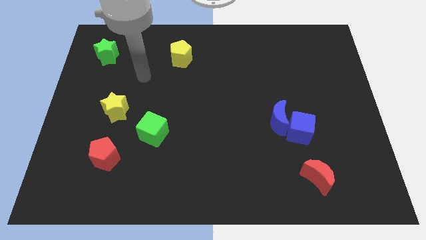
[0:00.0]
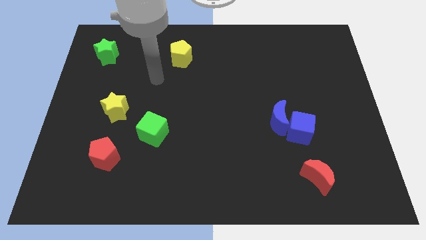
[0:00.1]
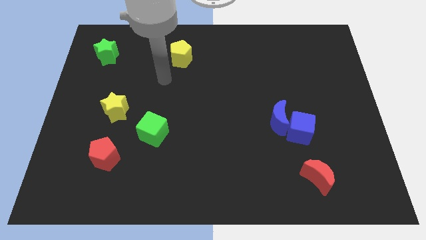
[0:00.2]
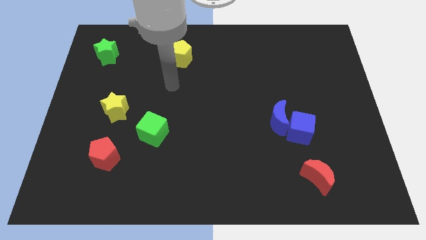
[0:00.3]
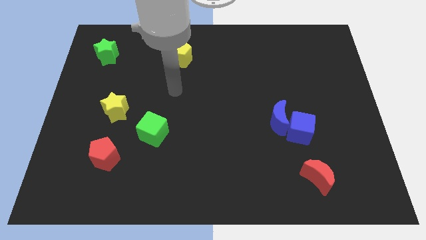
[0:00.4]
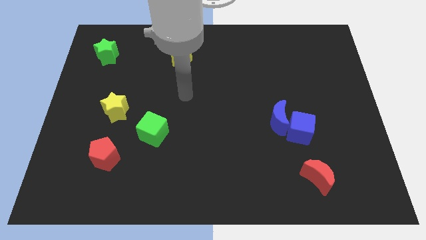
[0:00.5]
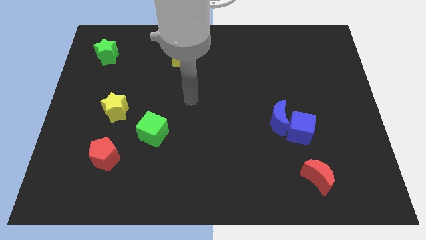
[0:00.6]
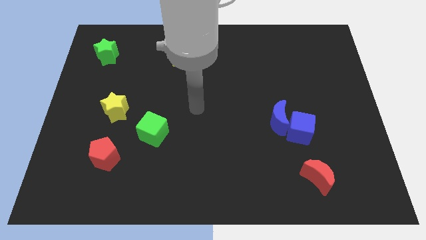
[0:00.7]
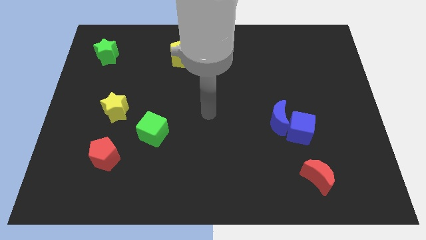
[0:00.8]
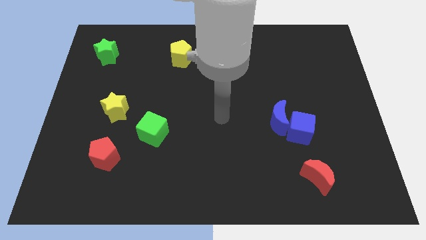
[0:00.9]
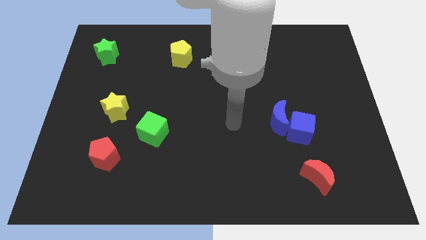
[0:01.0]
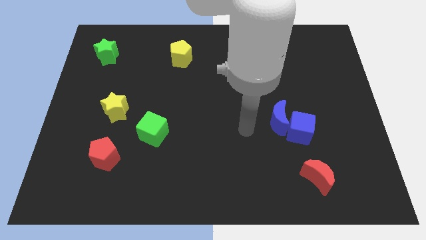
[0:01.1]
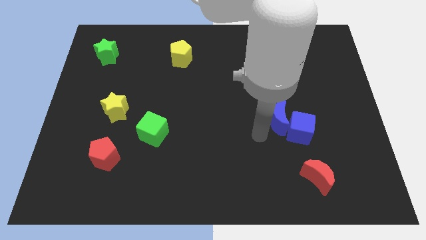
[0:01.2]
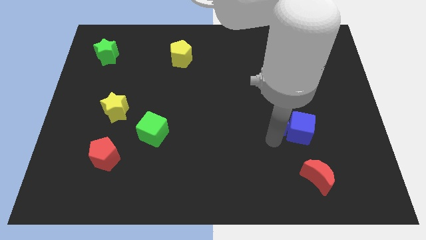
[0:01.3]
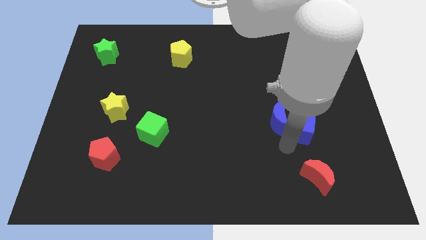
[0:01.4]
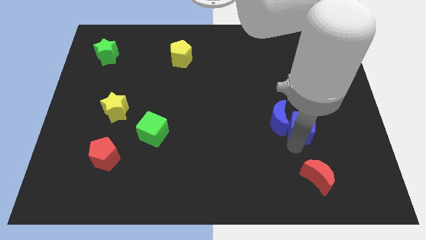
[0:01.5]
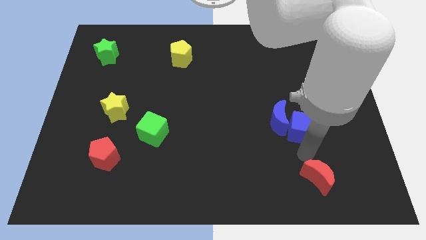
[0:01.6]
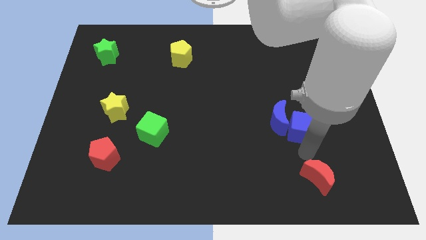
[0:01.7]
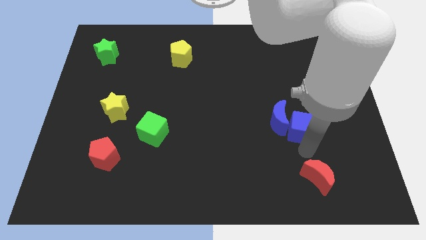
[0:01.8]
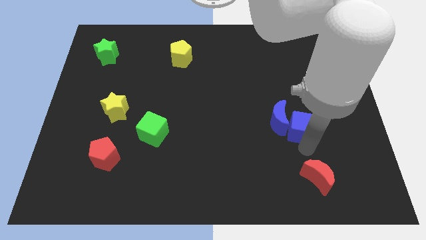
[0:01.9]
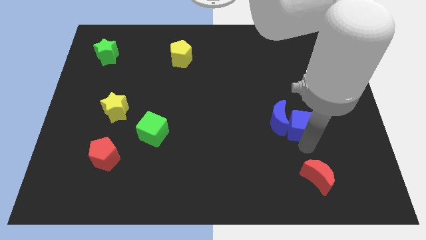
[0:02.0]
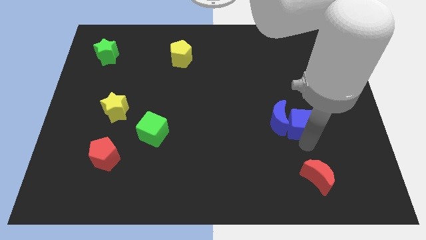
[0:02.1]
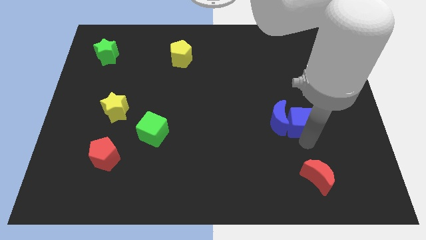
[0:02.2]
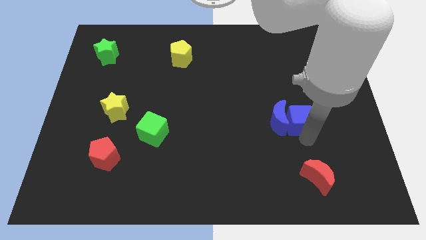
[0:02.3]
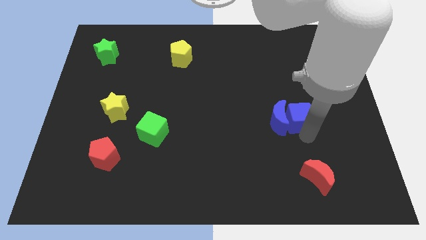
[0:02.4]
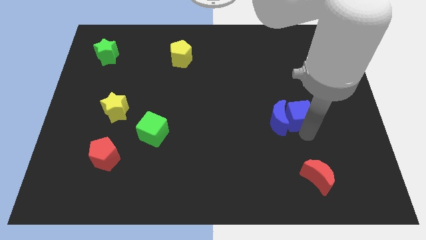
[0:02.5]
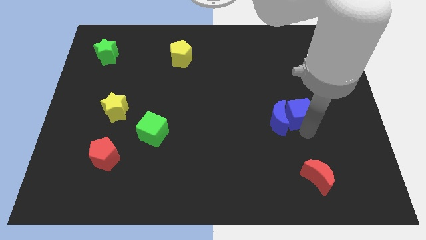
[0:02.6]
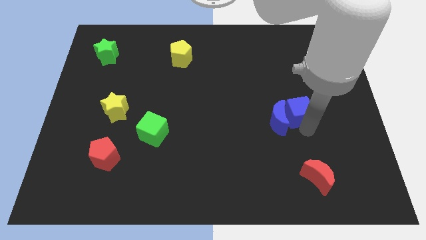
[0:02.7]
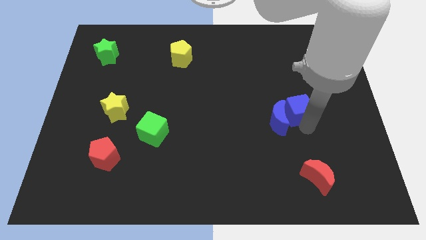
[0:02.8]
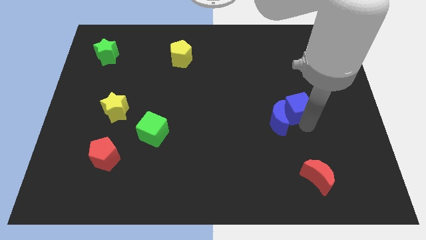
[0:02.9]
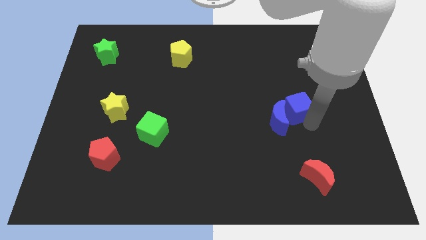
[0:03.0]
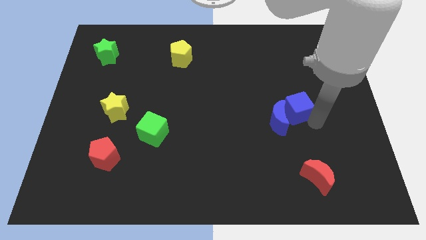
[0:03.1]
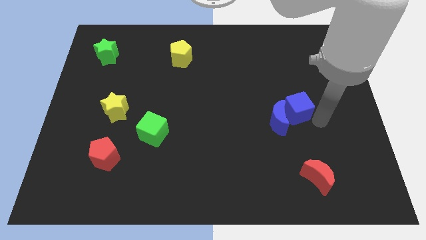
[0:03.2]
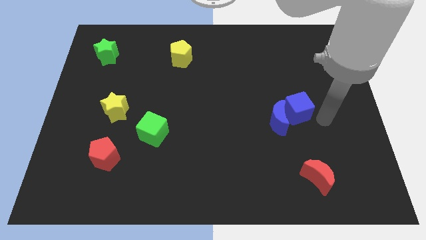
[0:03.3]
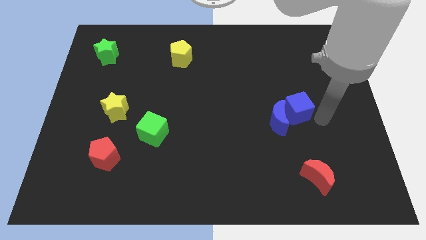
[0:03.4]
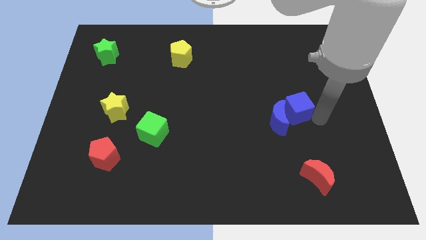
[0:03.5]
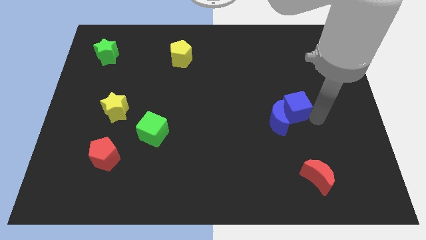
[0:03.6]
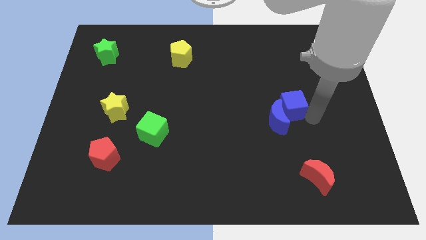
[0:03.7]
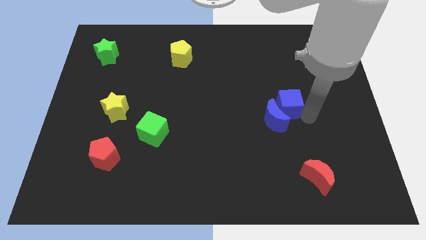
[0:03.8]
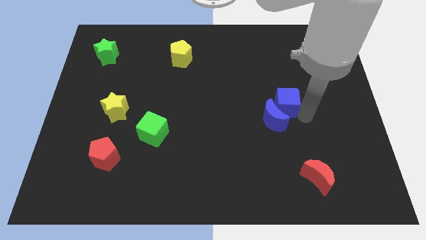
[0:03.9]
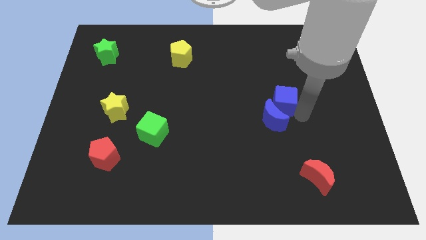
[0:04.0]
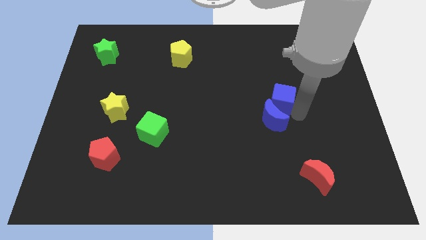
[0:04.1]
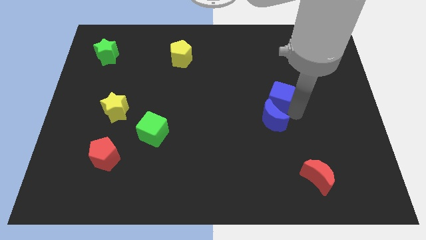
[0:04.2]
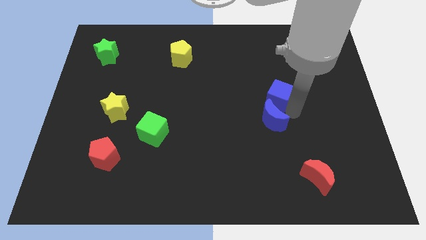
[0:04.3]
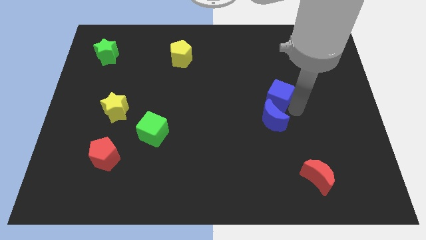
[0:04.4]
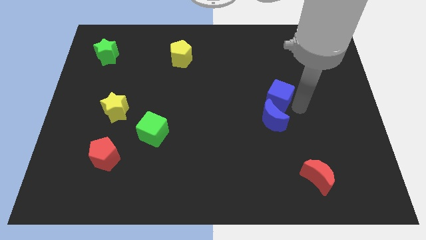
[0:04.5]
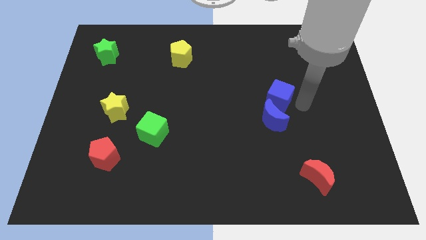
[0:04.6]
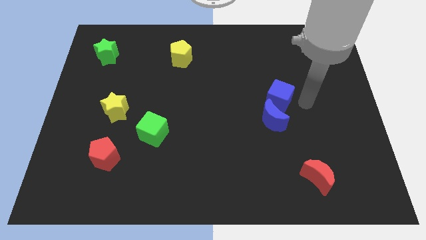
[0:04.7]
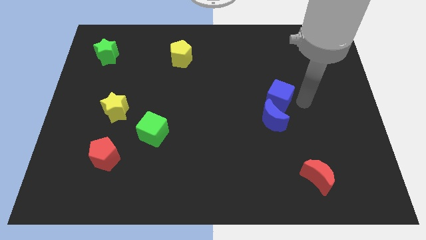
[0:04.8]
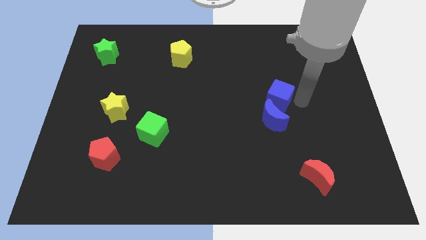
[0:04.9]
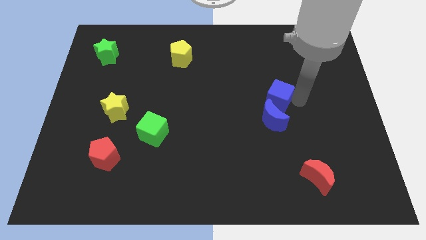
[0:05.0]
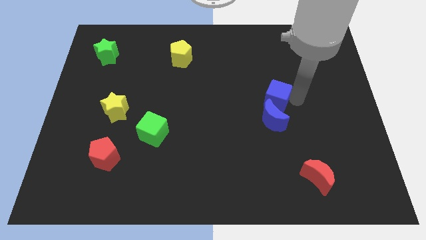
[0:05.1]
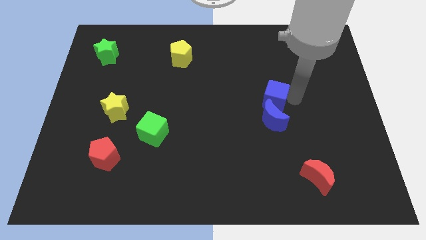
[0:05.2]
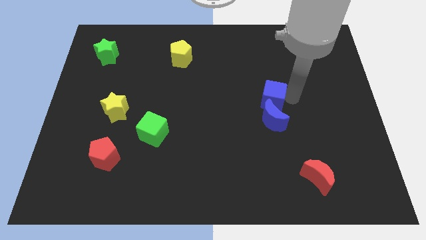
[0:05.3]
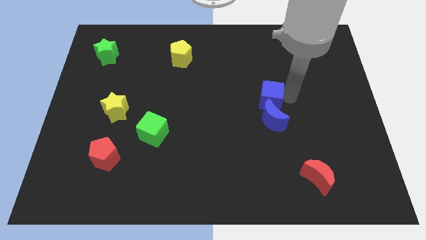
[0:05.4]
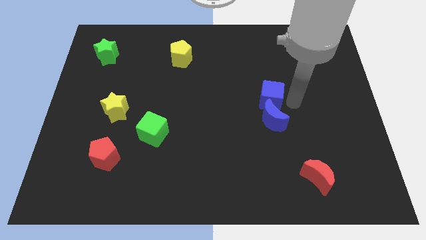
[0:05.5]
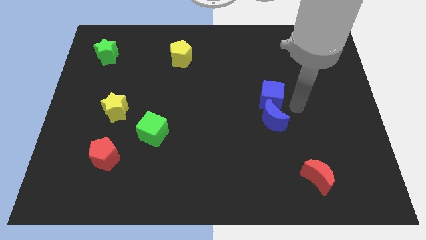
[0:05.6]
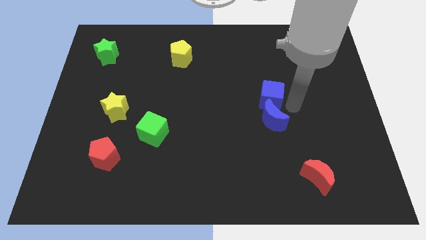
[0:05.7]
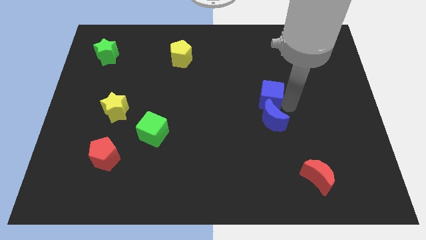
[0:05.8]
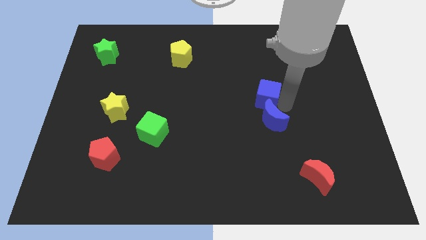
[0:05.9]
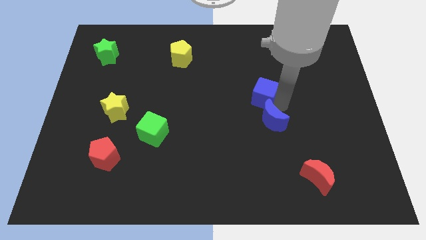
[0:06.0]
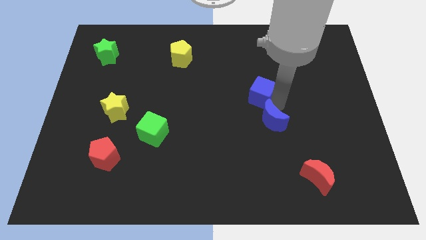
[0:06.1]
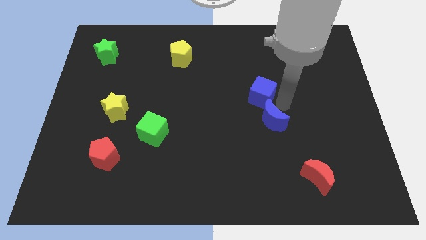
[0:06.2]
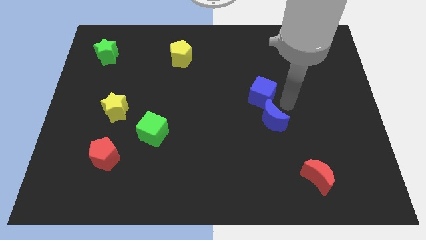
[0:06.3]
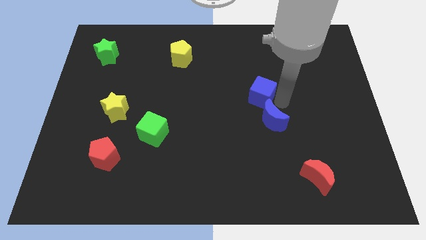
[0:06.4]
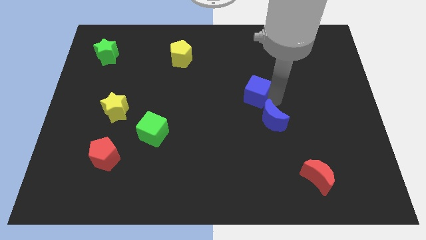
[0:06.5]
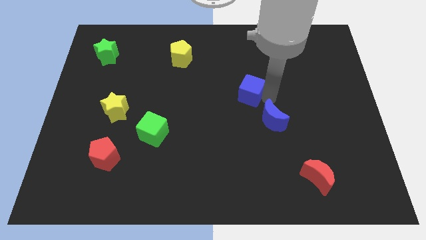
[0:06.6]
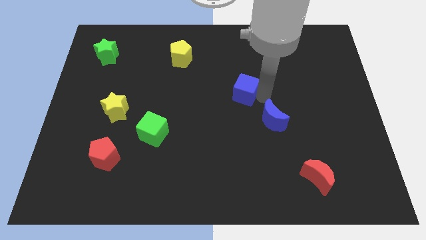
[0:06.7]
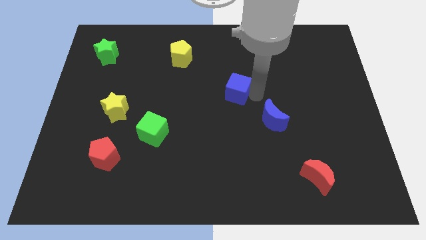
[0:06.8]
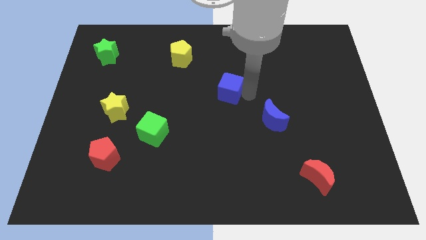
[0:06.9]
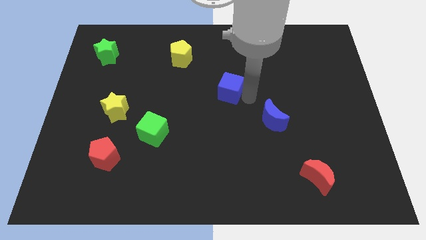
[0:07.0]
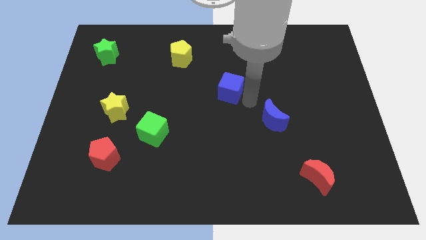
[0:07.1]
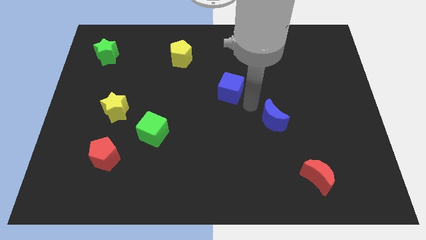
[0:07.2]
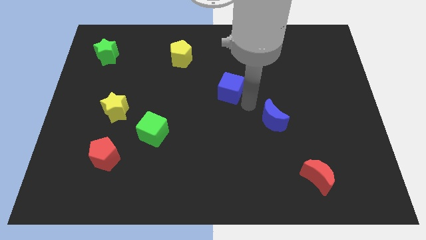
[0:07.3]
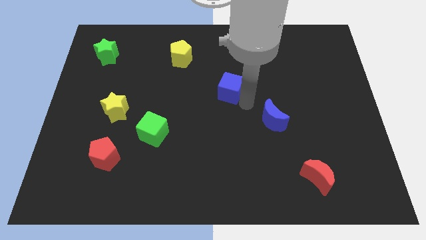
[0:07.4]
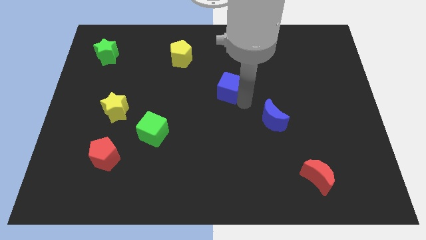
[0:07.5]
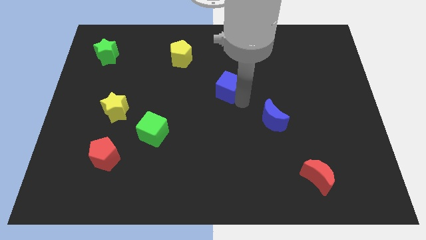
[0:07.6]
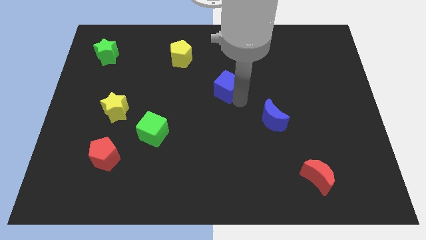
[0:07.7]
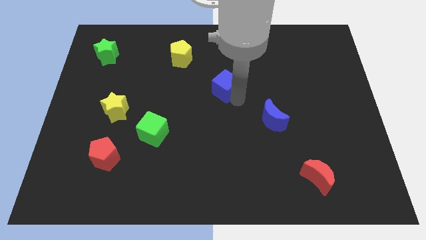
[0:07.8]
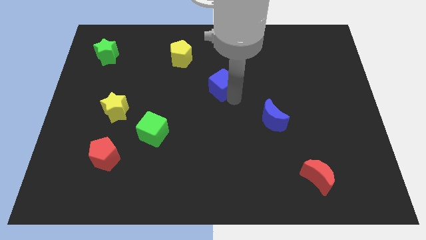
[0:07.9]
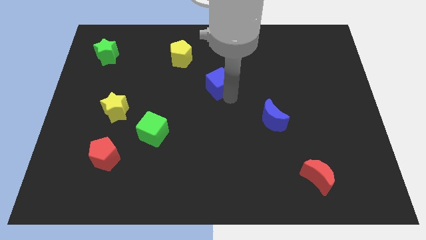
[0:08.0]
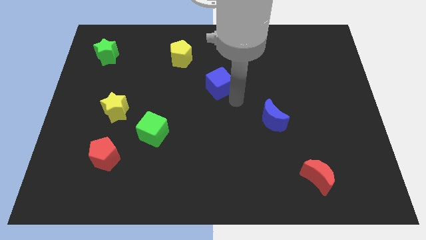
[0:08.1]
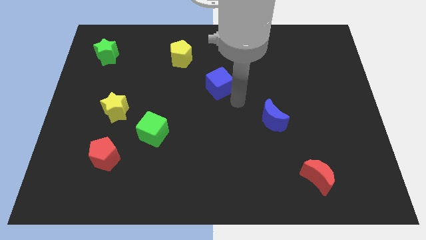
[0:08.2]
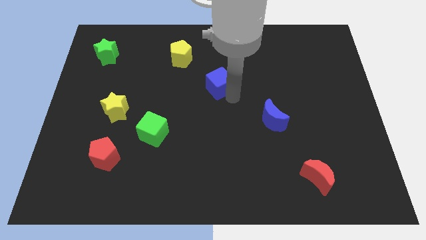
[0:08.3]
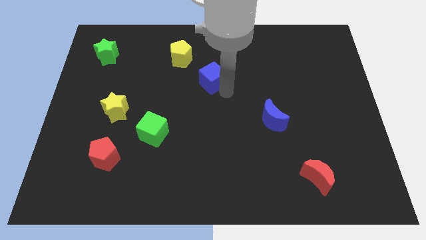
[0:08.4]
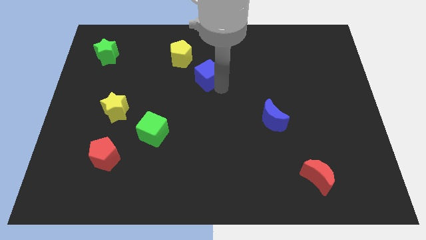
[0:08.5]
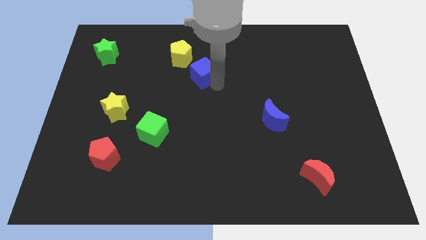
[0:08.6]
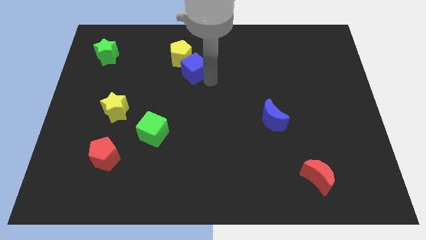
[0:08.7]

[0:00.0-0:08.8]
slide the blue cube to the yellow pentagon
